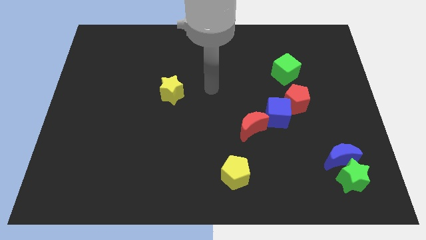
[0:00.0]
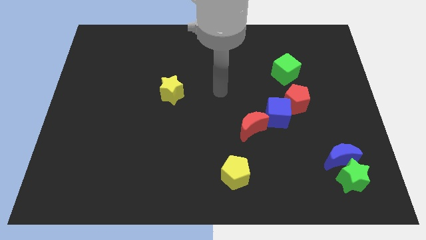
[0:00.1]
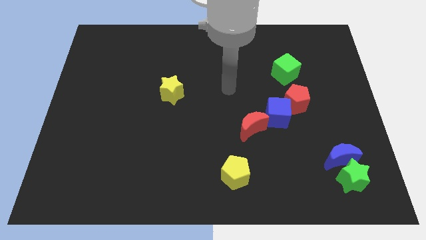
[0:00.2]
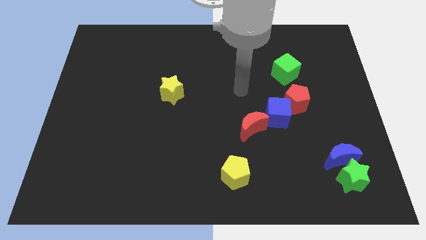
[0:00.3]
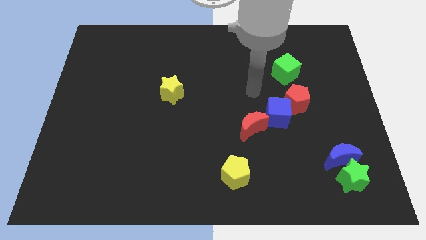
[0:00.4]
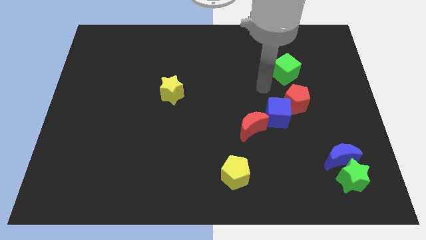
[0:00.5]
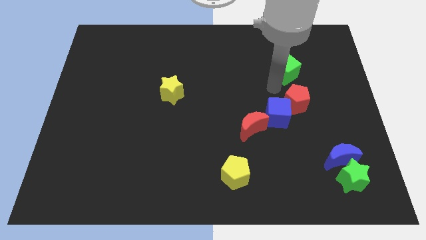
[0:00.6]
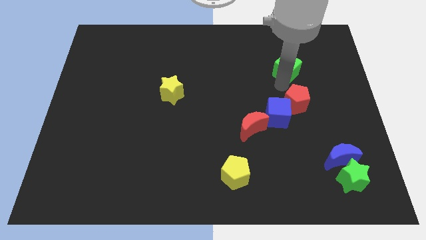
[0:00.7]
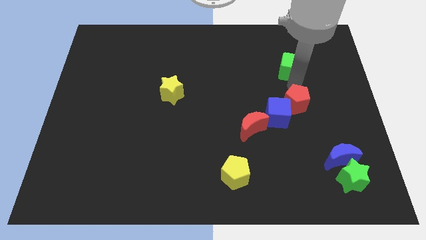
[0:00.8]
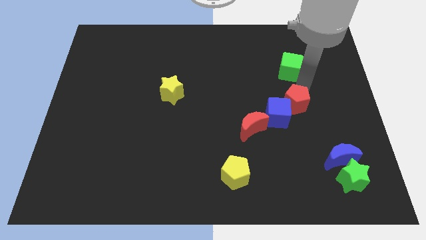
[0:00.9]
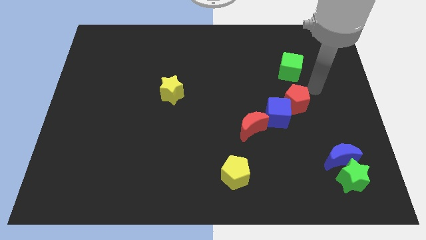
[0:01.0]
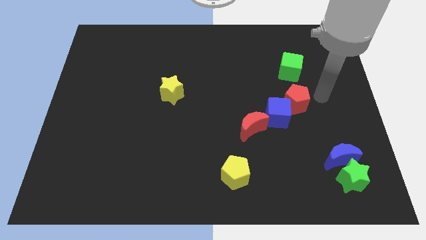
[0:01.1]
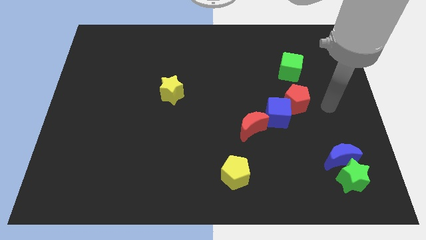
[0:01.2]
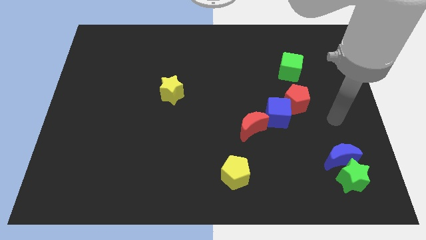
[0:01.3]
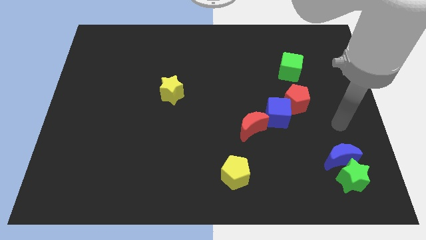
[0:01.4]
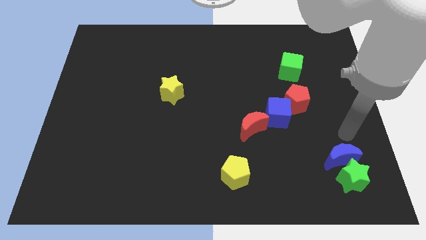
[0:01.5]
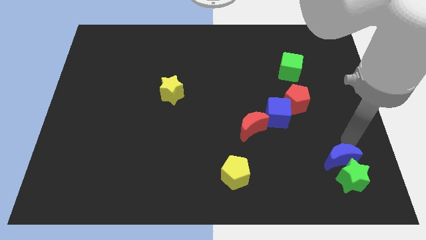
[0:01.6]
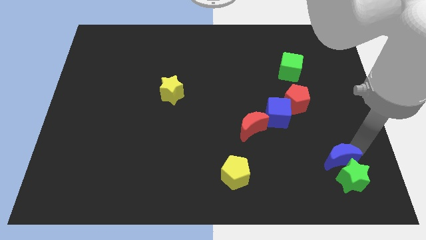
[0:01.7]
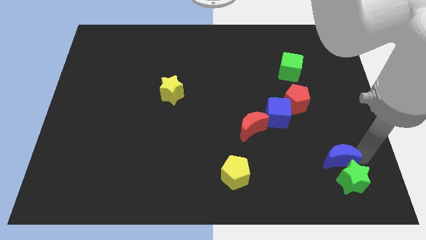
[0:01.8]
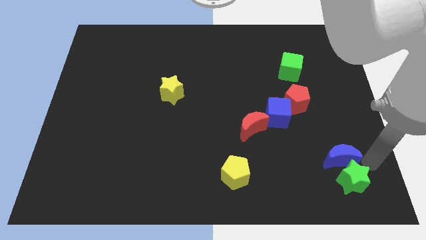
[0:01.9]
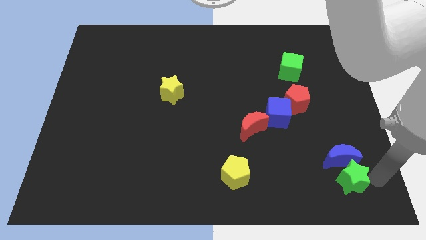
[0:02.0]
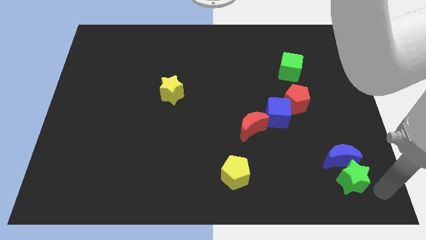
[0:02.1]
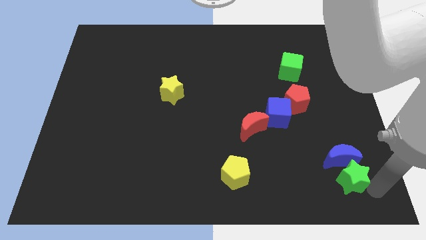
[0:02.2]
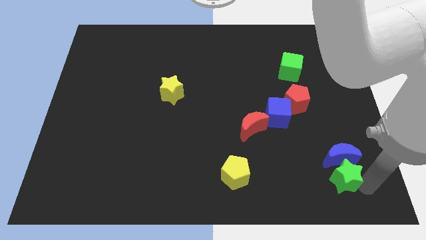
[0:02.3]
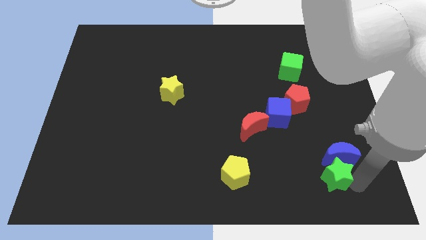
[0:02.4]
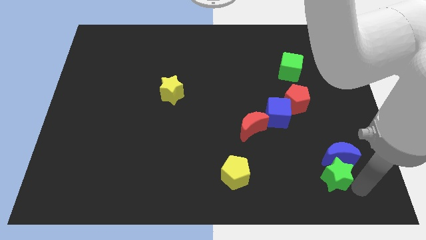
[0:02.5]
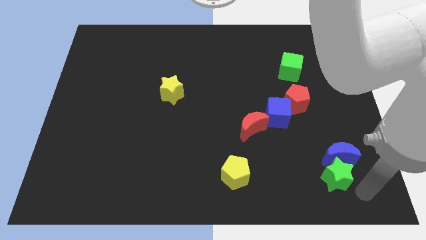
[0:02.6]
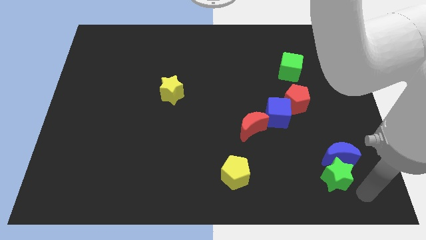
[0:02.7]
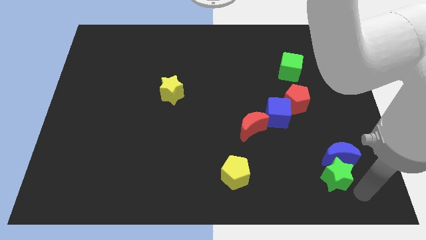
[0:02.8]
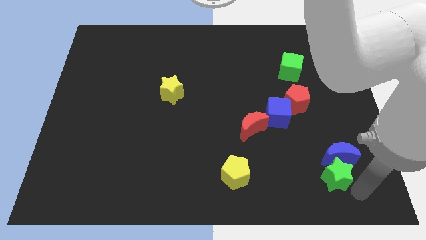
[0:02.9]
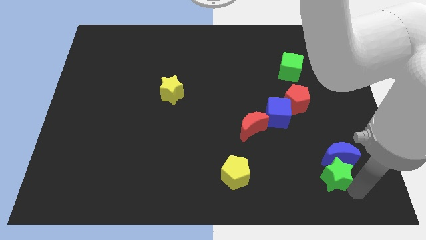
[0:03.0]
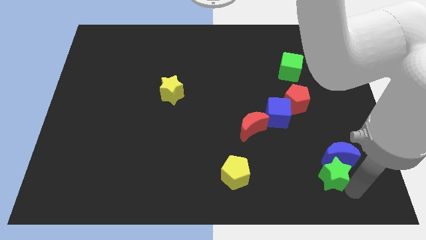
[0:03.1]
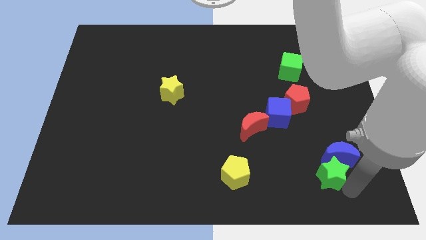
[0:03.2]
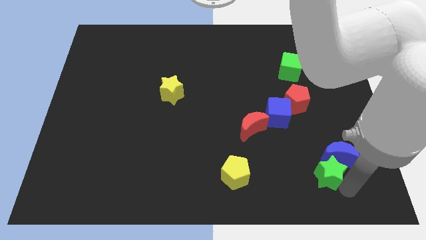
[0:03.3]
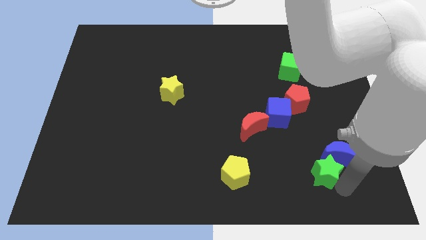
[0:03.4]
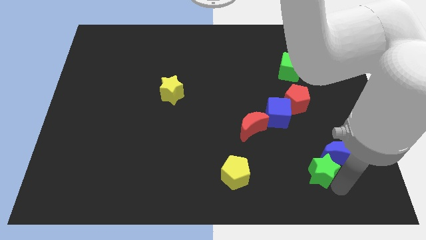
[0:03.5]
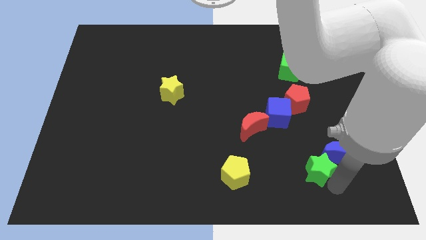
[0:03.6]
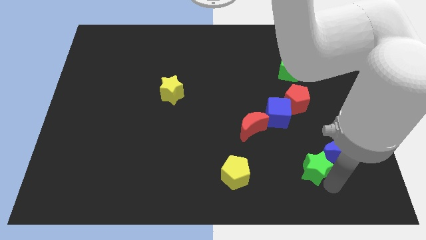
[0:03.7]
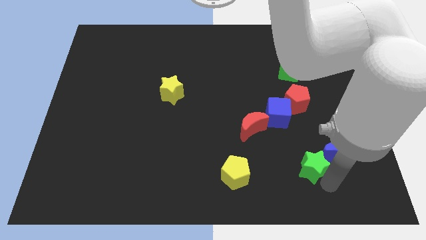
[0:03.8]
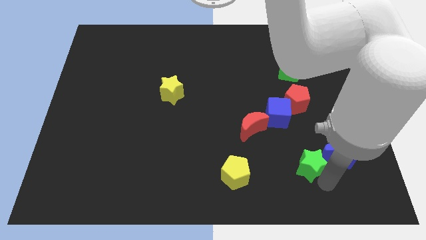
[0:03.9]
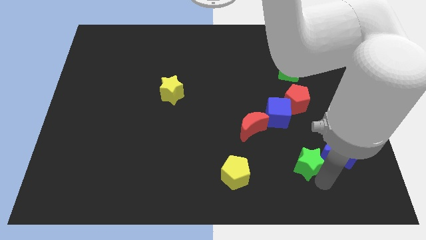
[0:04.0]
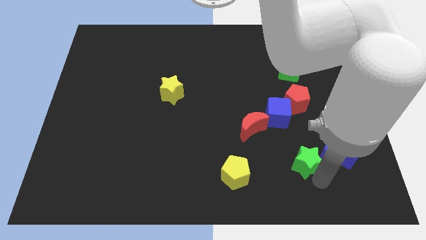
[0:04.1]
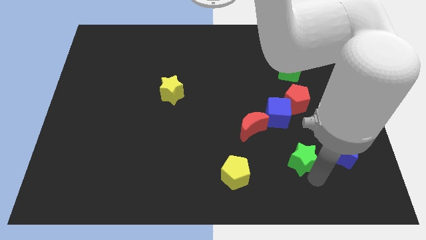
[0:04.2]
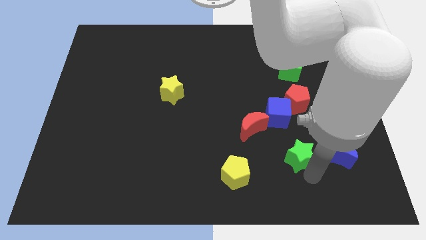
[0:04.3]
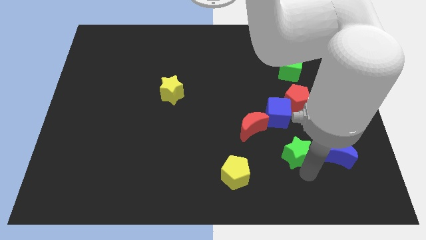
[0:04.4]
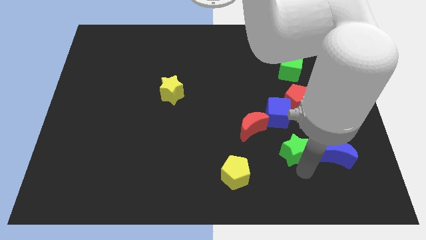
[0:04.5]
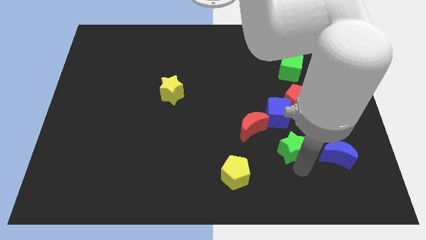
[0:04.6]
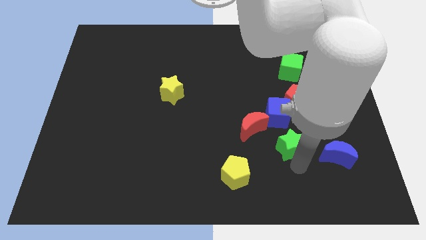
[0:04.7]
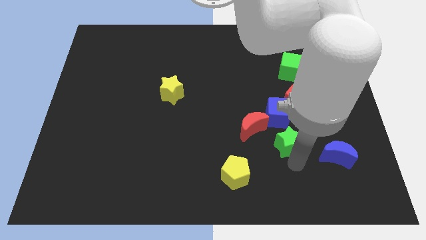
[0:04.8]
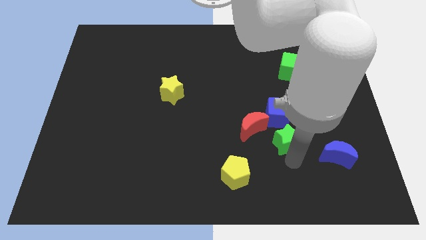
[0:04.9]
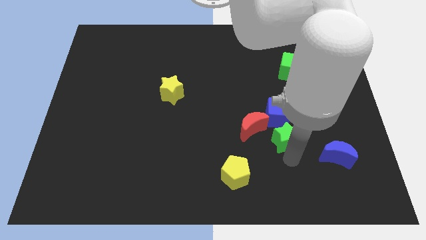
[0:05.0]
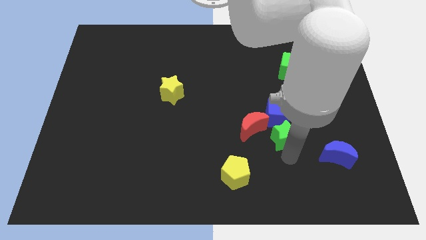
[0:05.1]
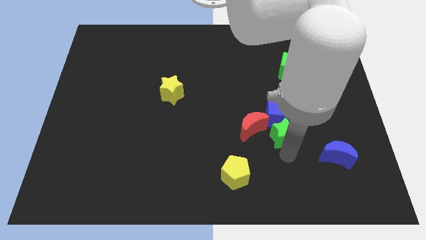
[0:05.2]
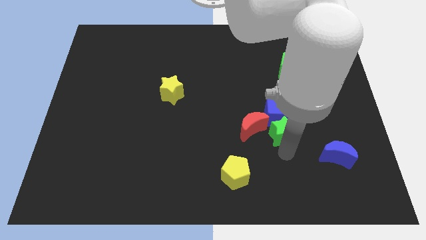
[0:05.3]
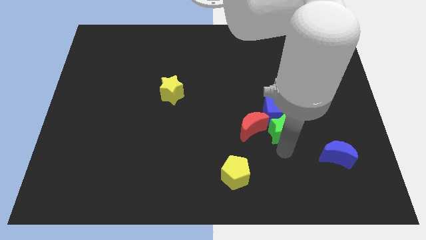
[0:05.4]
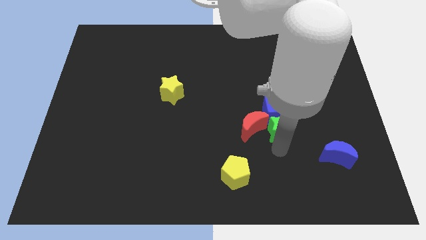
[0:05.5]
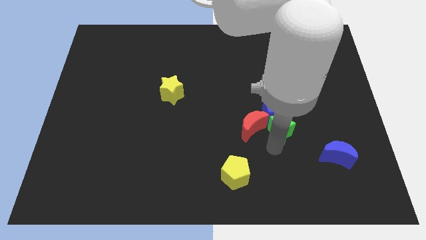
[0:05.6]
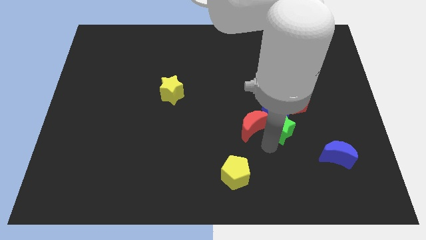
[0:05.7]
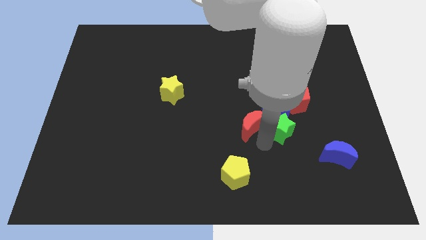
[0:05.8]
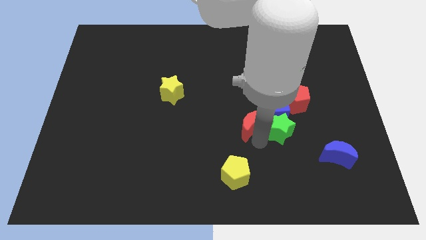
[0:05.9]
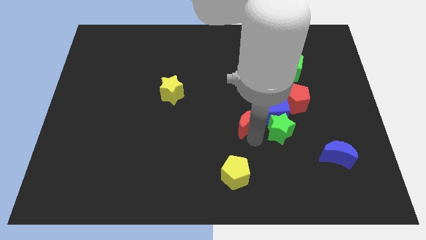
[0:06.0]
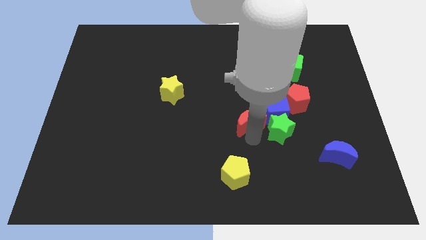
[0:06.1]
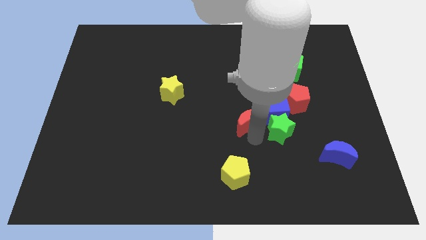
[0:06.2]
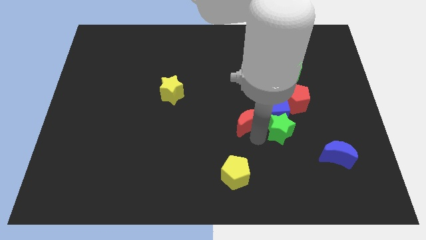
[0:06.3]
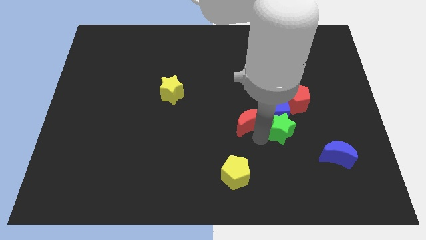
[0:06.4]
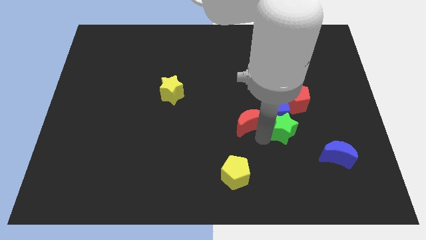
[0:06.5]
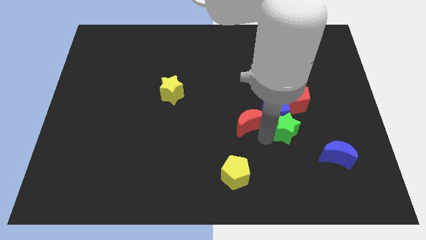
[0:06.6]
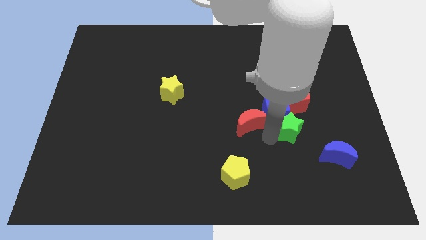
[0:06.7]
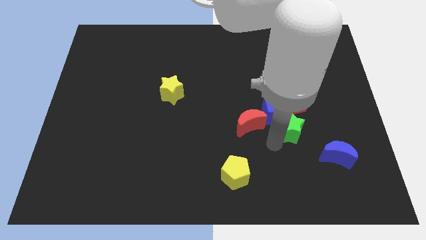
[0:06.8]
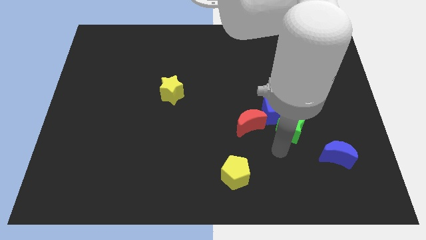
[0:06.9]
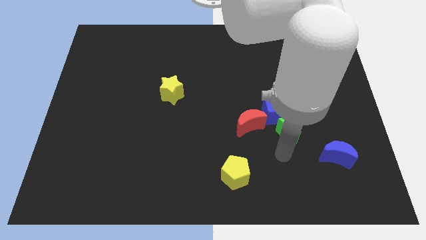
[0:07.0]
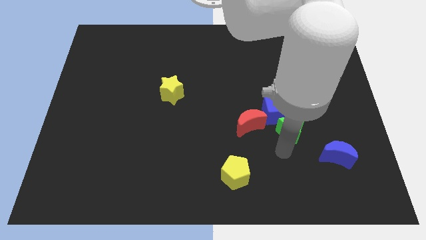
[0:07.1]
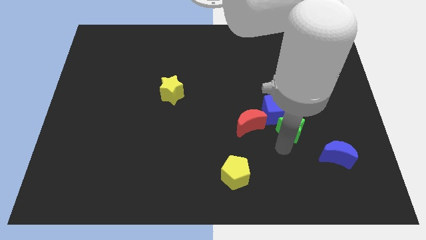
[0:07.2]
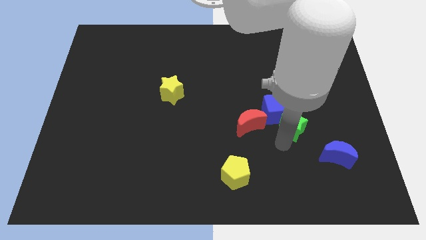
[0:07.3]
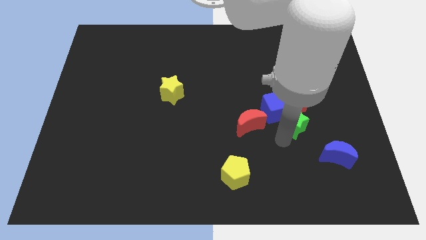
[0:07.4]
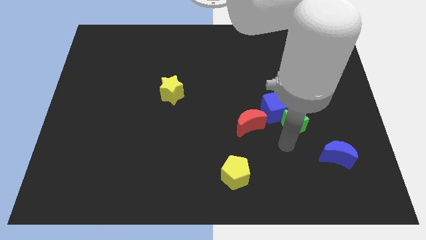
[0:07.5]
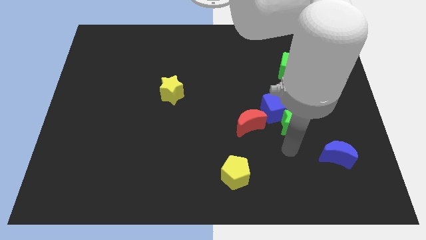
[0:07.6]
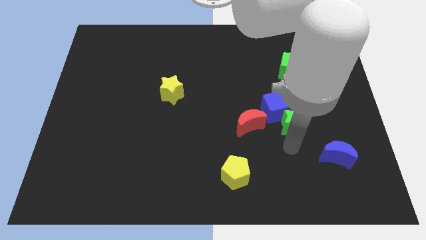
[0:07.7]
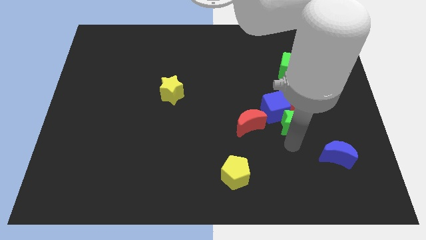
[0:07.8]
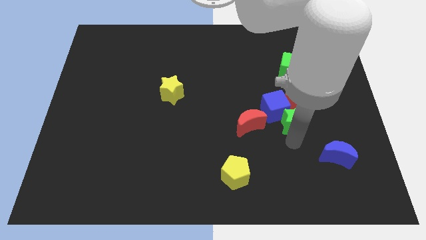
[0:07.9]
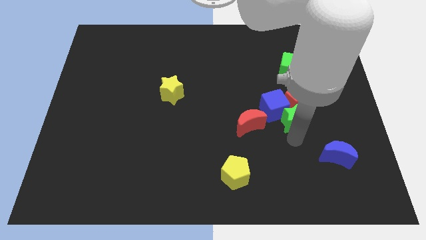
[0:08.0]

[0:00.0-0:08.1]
push the green star close to the red pentagon
